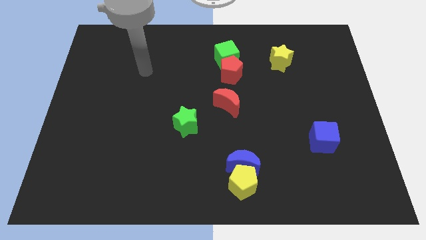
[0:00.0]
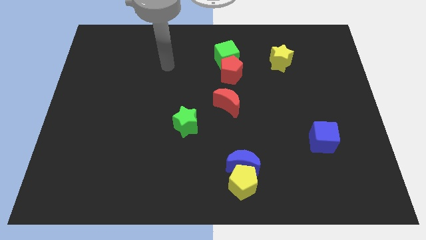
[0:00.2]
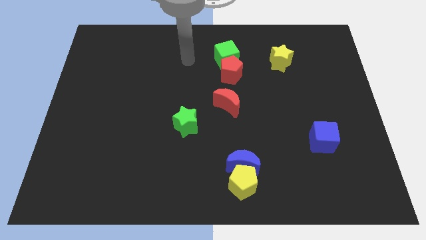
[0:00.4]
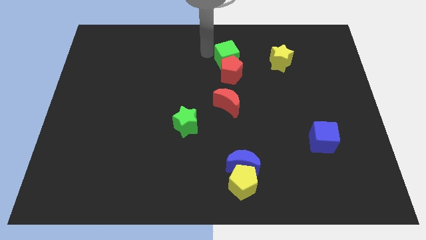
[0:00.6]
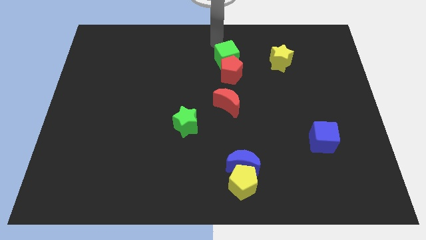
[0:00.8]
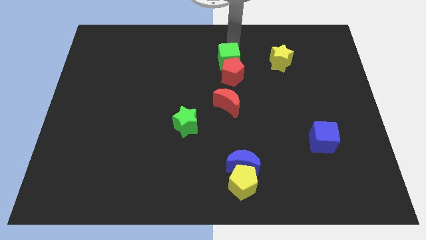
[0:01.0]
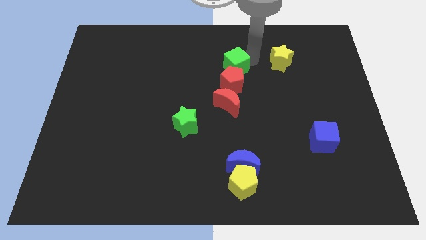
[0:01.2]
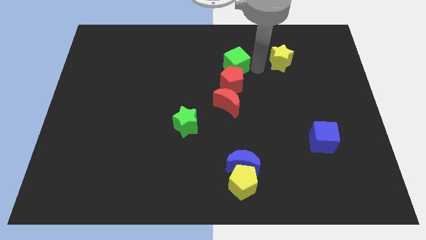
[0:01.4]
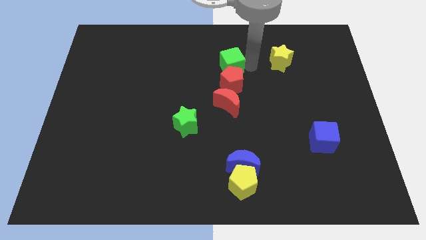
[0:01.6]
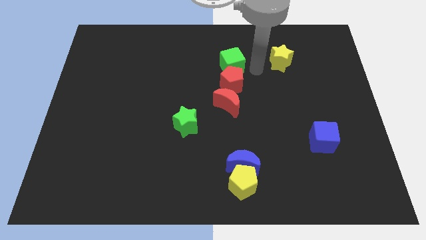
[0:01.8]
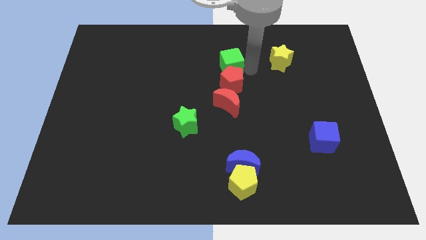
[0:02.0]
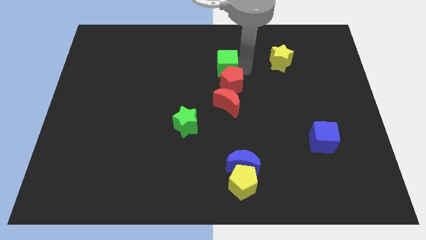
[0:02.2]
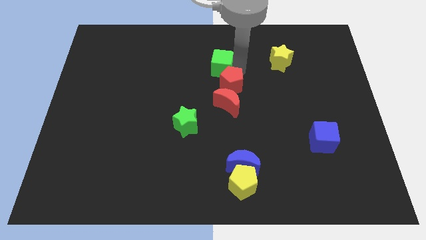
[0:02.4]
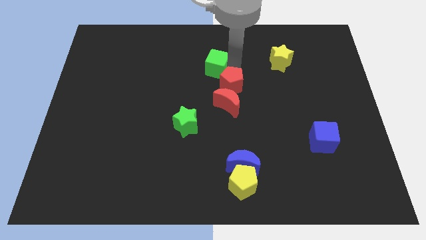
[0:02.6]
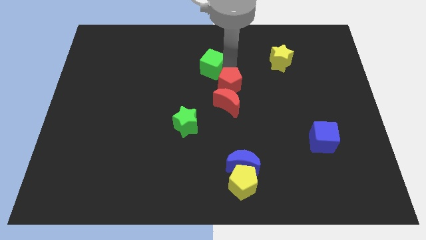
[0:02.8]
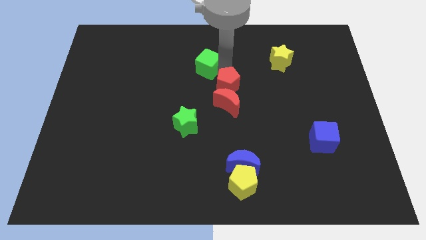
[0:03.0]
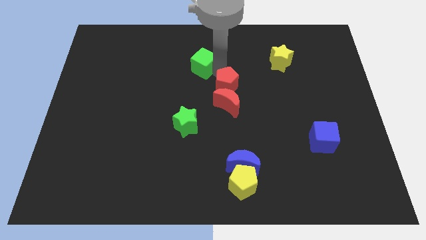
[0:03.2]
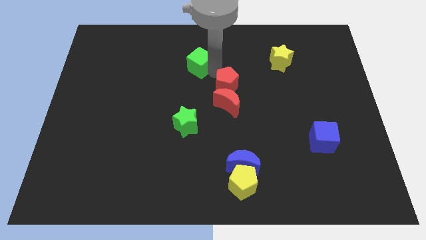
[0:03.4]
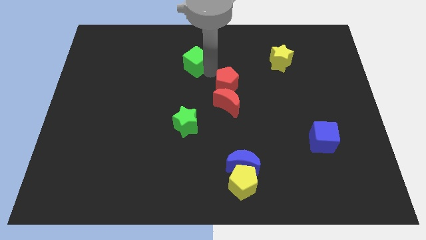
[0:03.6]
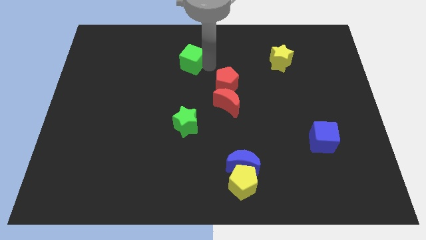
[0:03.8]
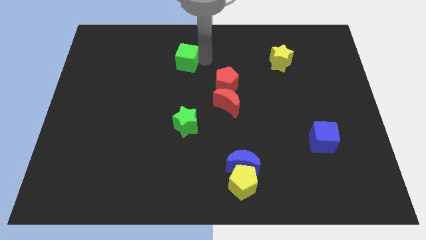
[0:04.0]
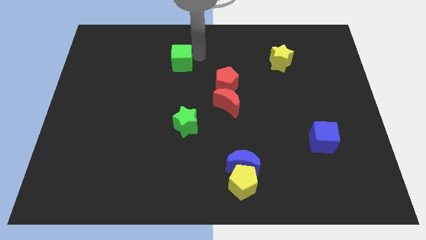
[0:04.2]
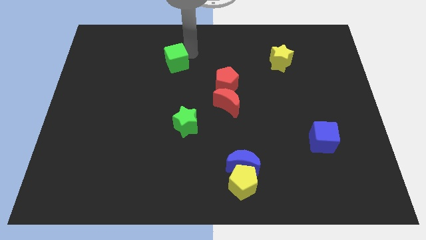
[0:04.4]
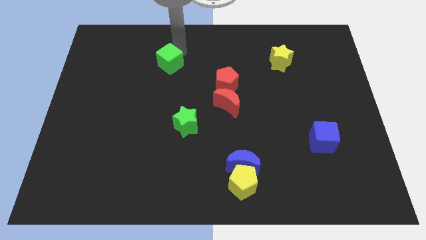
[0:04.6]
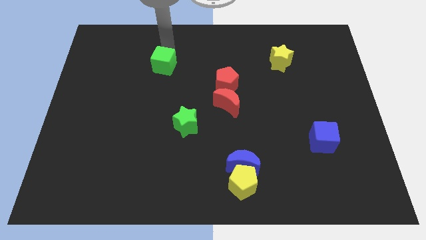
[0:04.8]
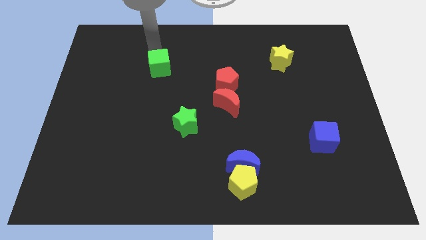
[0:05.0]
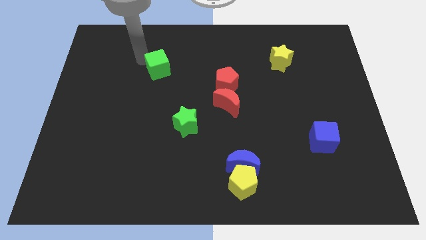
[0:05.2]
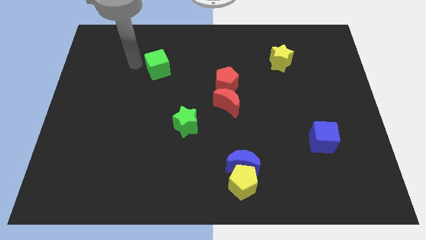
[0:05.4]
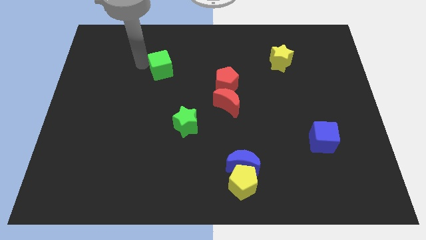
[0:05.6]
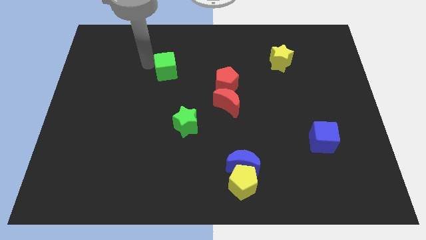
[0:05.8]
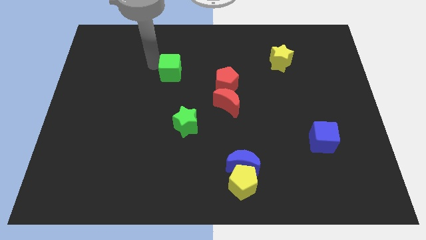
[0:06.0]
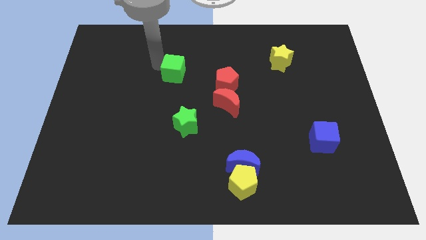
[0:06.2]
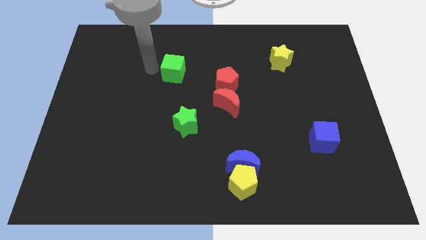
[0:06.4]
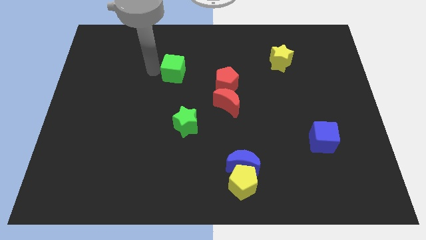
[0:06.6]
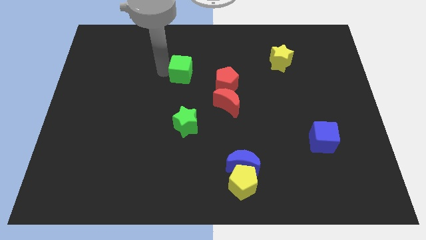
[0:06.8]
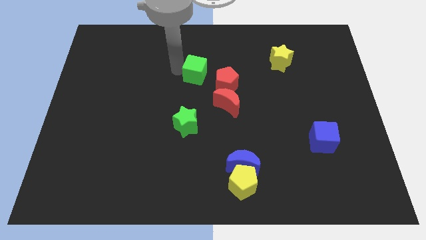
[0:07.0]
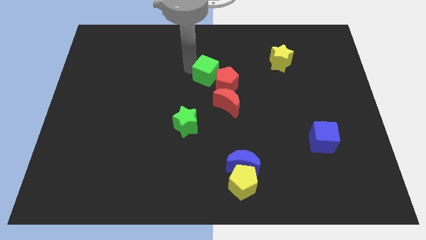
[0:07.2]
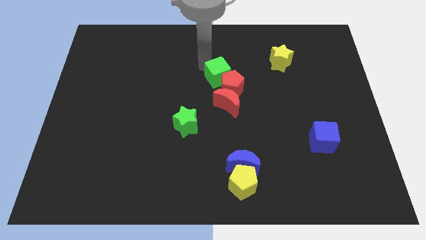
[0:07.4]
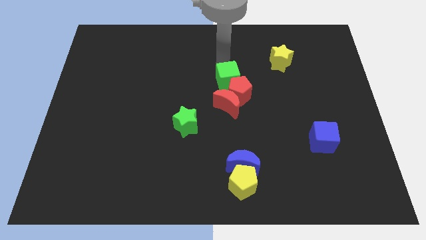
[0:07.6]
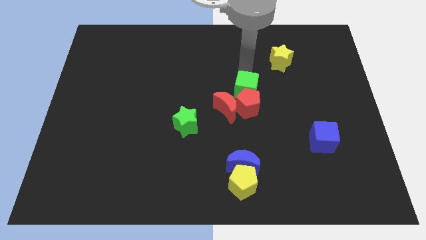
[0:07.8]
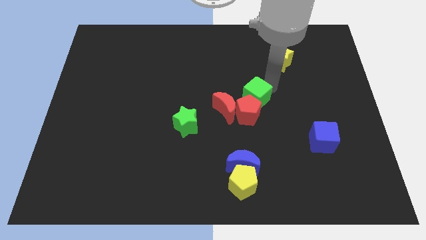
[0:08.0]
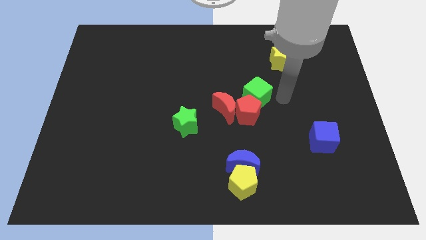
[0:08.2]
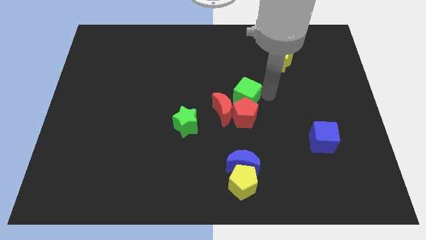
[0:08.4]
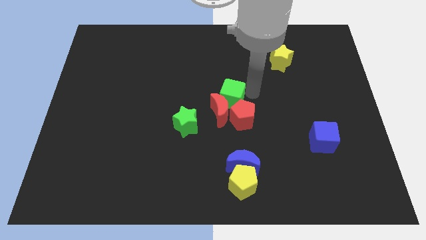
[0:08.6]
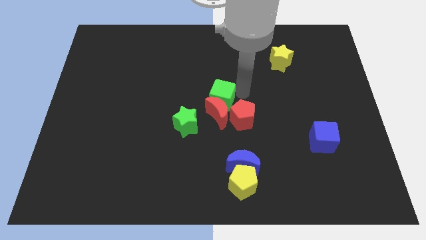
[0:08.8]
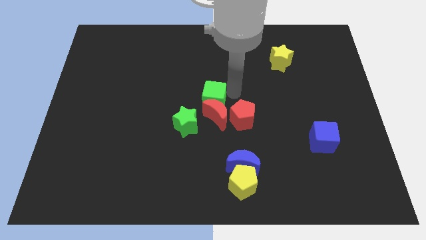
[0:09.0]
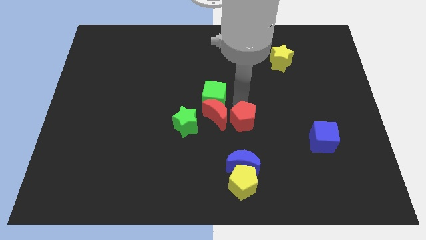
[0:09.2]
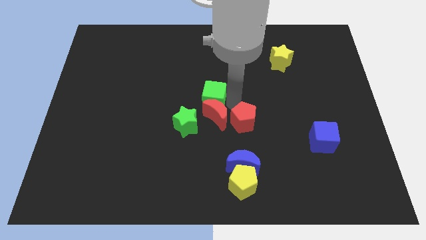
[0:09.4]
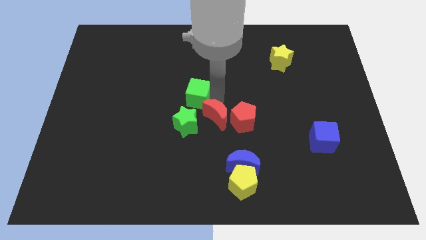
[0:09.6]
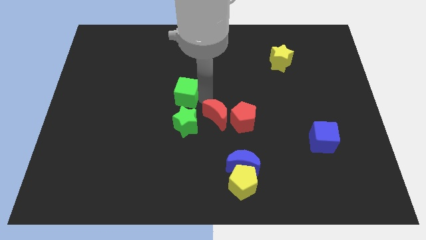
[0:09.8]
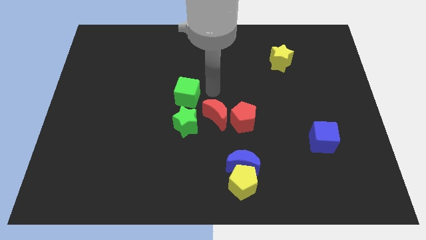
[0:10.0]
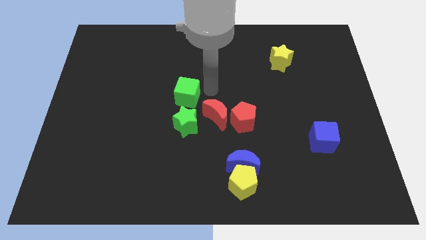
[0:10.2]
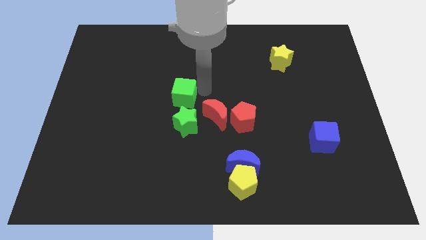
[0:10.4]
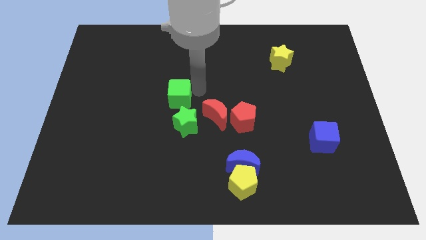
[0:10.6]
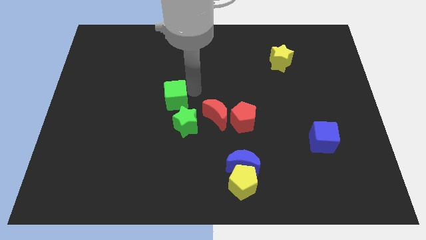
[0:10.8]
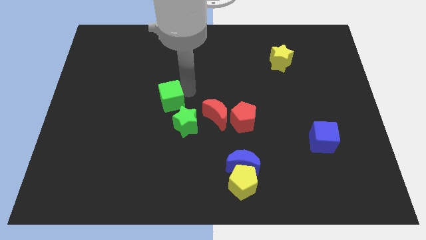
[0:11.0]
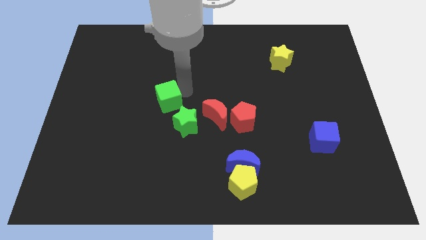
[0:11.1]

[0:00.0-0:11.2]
push the green cube down and to the left diagonally

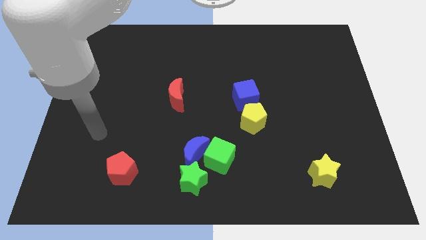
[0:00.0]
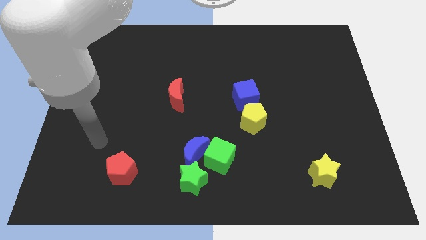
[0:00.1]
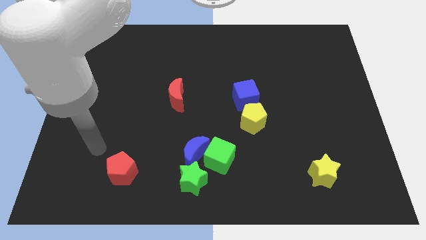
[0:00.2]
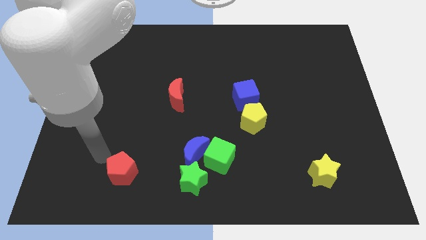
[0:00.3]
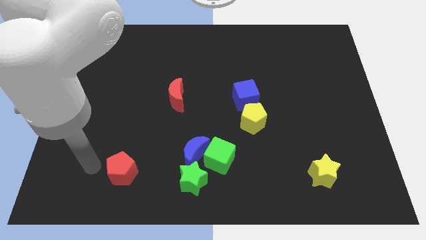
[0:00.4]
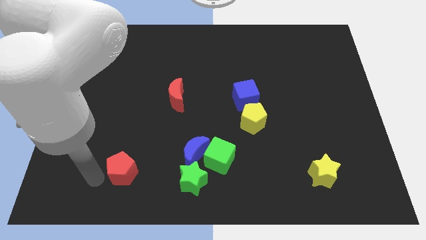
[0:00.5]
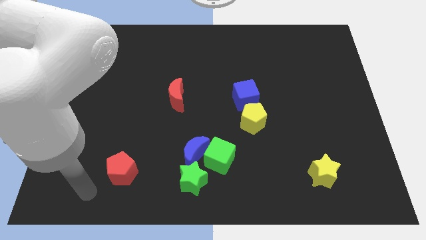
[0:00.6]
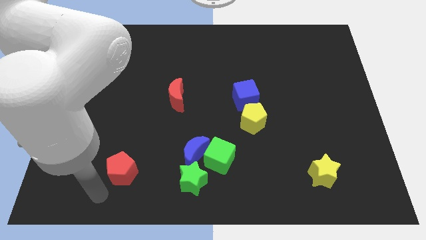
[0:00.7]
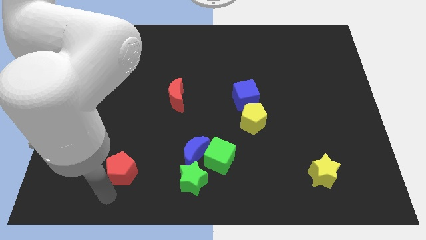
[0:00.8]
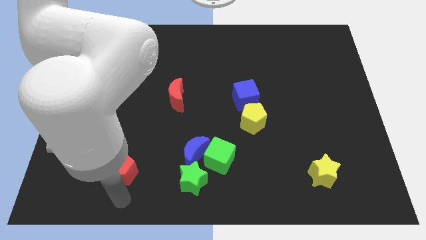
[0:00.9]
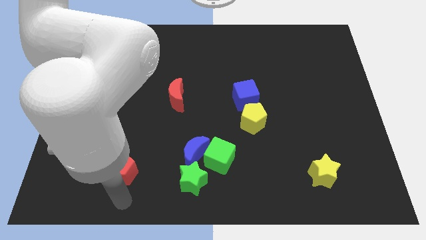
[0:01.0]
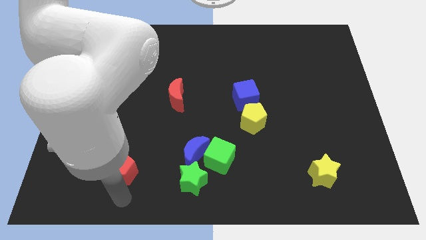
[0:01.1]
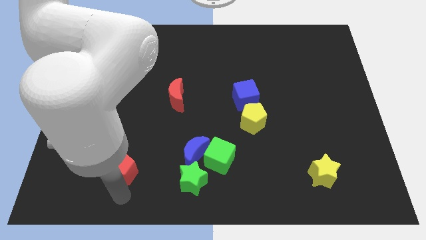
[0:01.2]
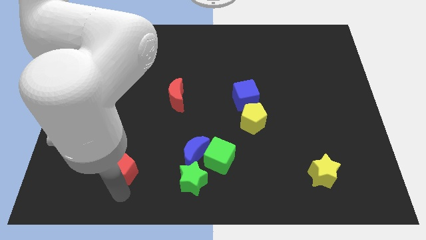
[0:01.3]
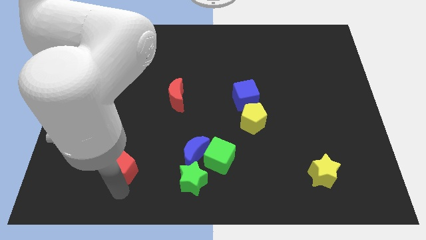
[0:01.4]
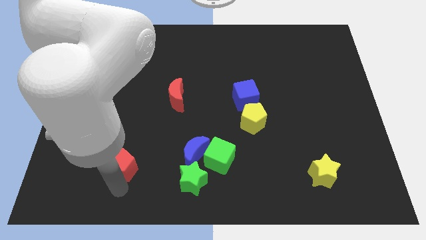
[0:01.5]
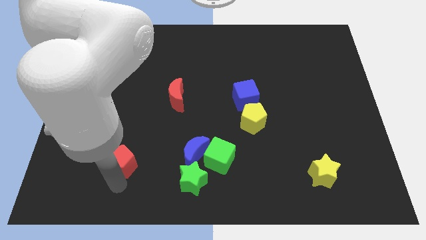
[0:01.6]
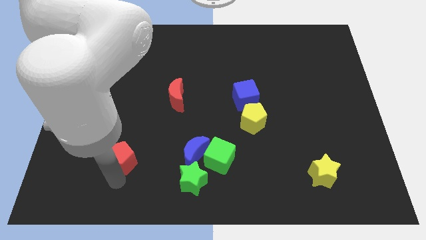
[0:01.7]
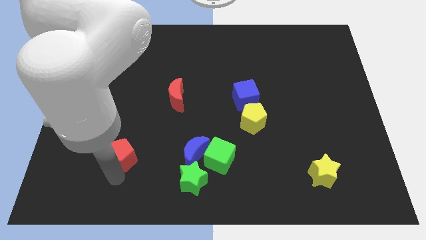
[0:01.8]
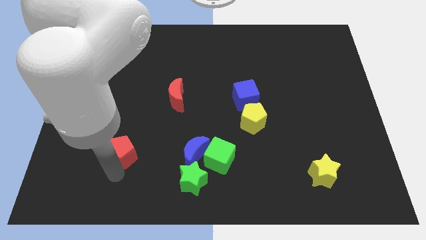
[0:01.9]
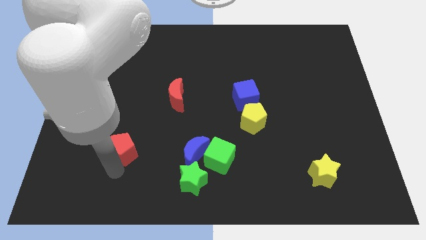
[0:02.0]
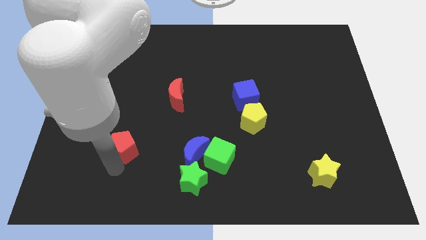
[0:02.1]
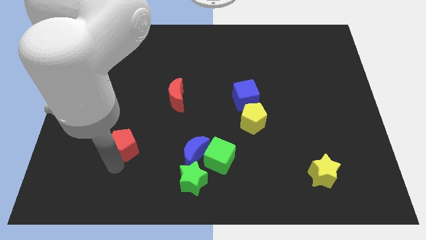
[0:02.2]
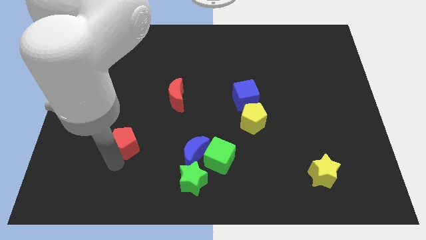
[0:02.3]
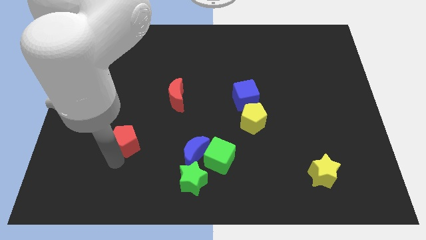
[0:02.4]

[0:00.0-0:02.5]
slide the red pentagon upwards a little
